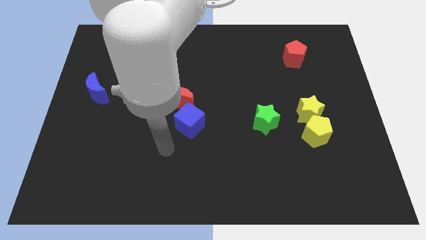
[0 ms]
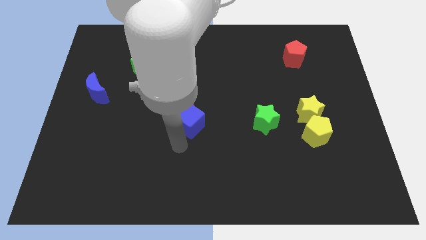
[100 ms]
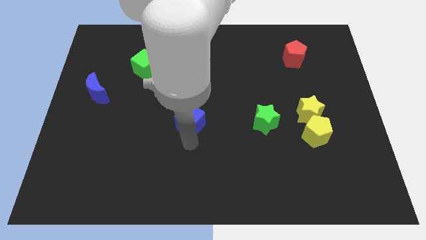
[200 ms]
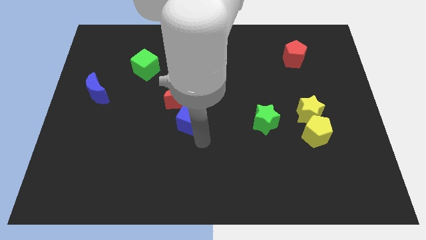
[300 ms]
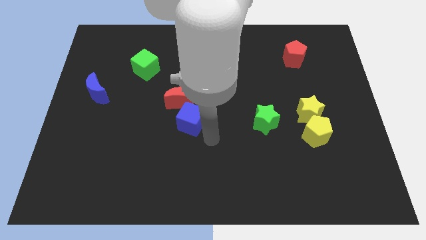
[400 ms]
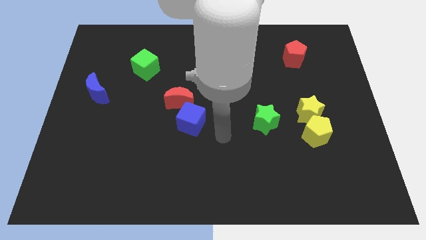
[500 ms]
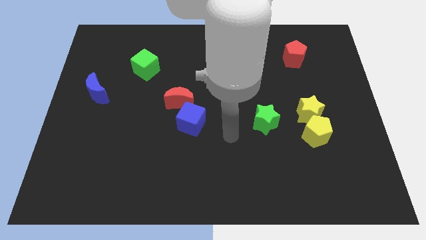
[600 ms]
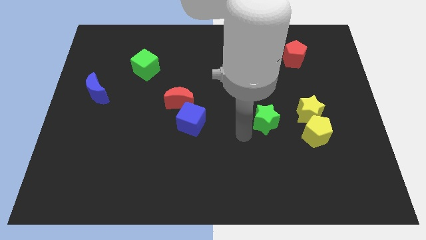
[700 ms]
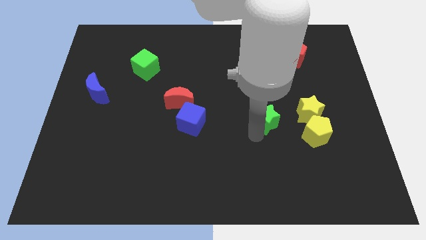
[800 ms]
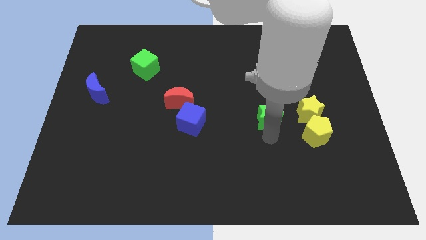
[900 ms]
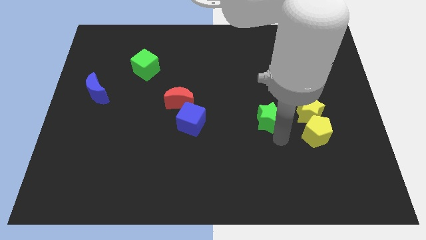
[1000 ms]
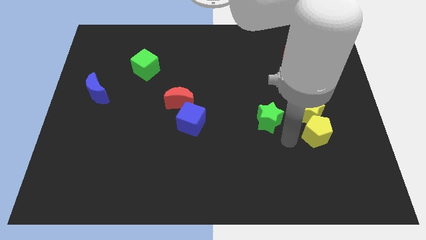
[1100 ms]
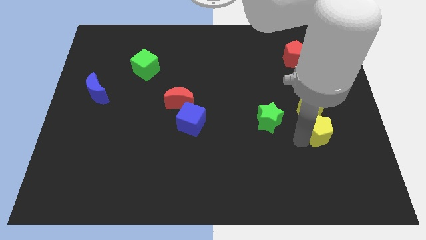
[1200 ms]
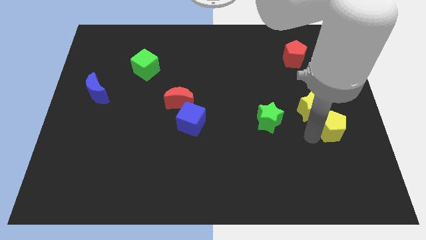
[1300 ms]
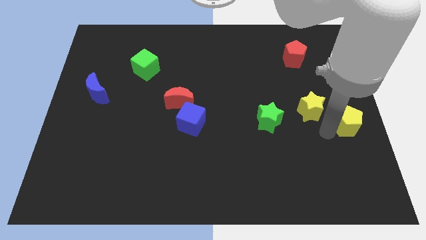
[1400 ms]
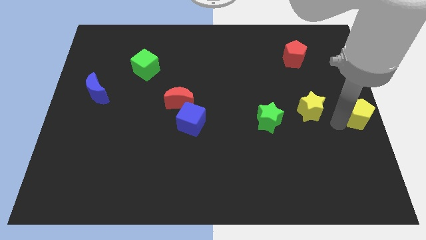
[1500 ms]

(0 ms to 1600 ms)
pull the yellow star apart from the yellow pentagon

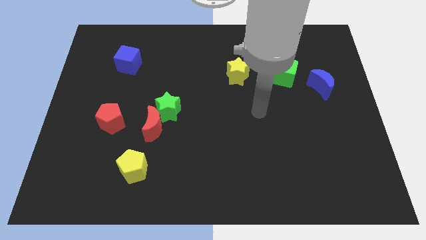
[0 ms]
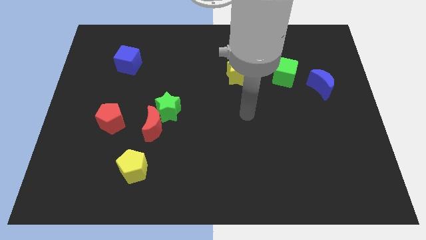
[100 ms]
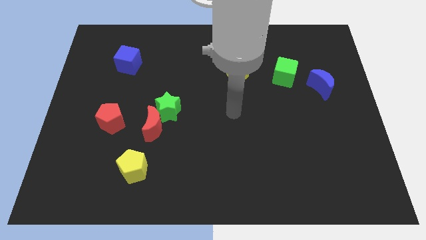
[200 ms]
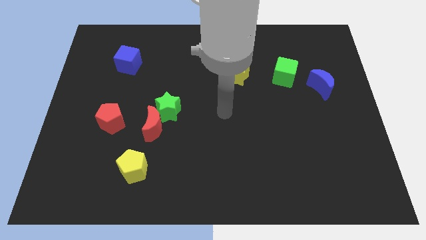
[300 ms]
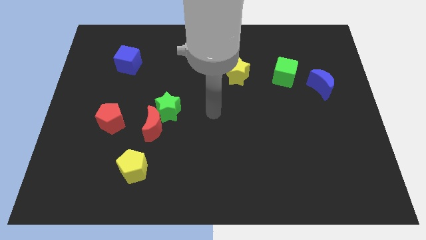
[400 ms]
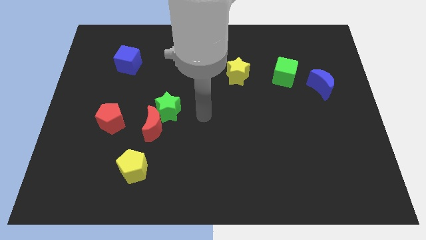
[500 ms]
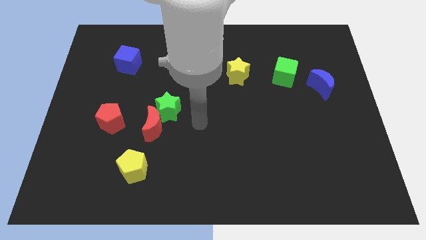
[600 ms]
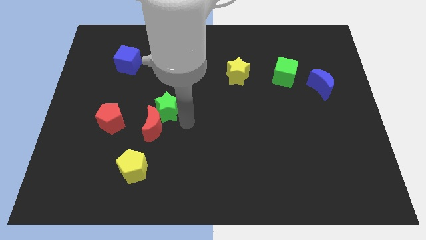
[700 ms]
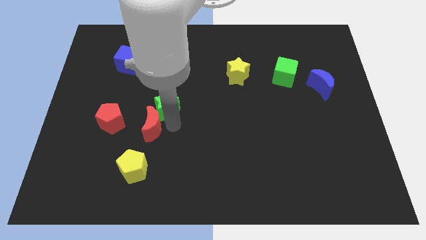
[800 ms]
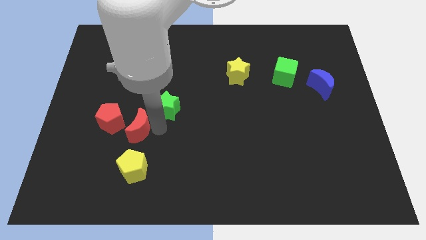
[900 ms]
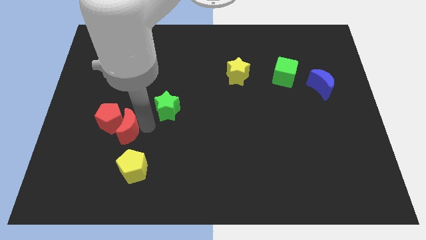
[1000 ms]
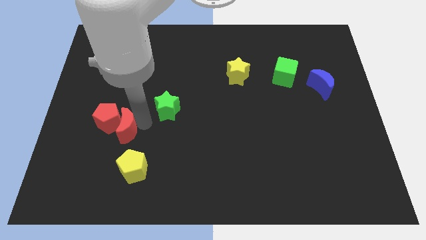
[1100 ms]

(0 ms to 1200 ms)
move the green star away from the red moon

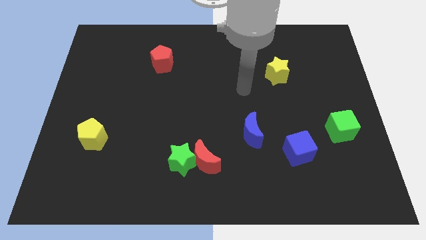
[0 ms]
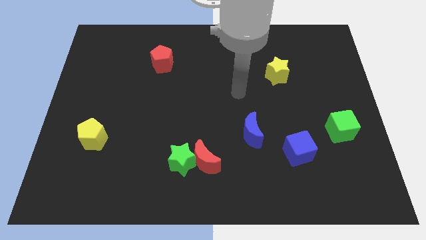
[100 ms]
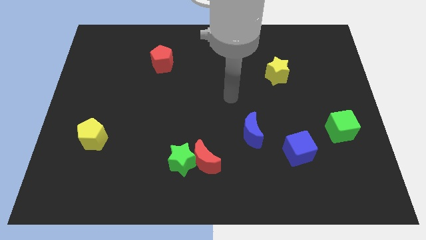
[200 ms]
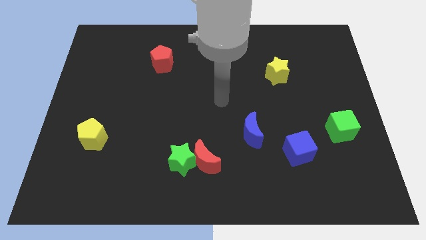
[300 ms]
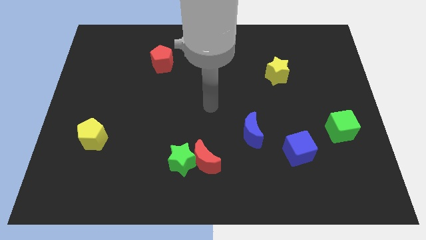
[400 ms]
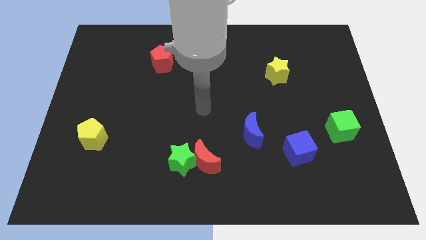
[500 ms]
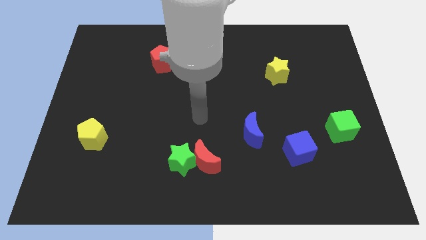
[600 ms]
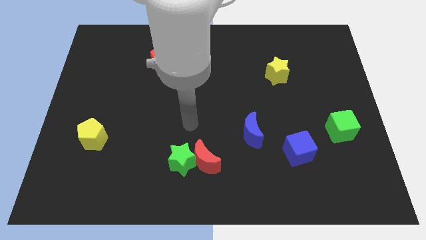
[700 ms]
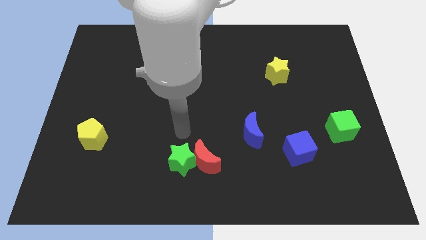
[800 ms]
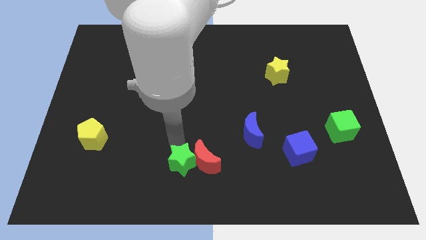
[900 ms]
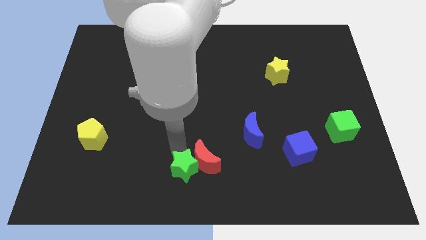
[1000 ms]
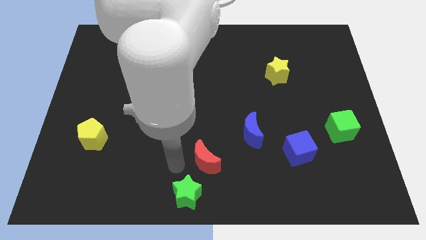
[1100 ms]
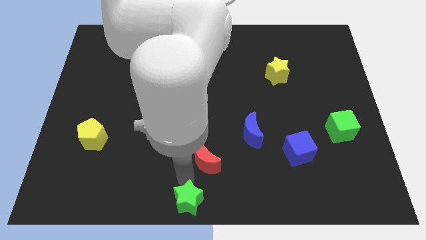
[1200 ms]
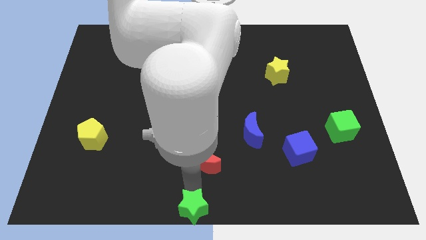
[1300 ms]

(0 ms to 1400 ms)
pull the red moon apart from the green star

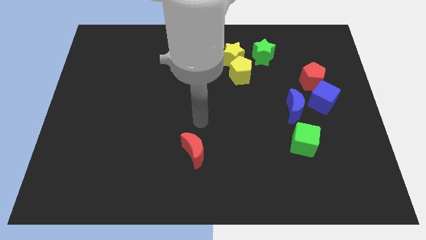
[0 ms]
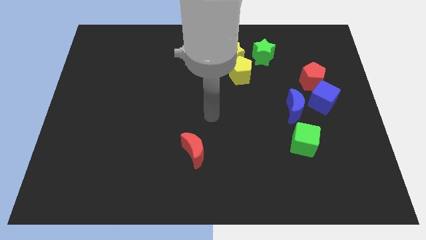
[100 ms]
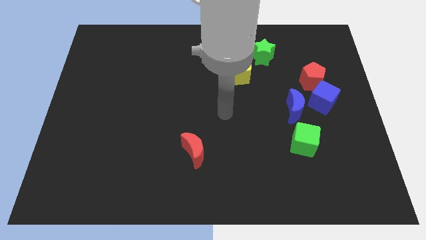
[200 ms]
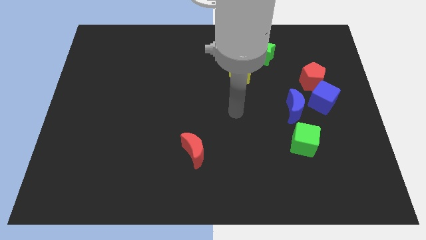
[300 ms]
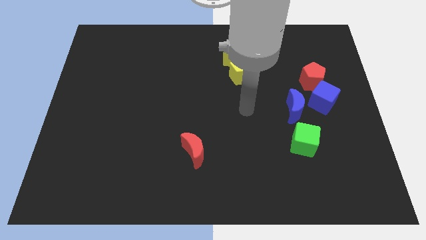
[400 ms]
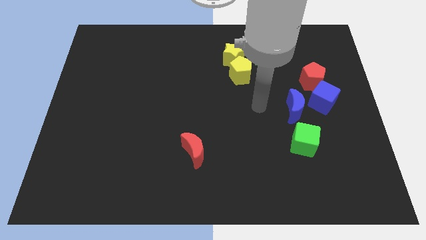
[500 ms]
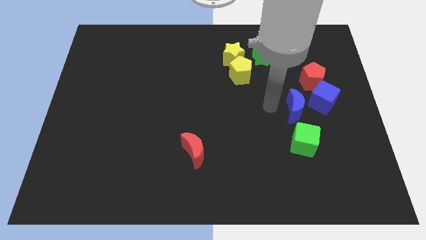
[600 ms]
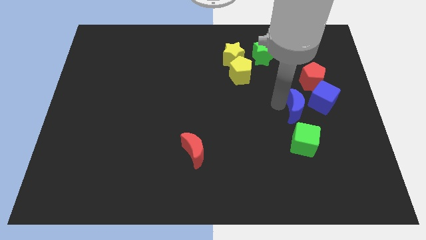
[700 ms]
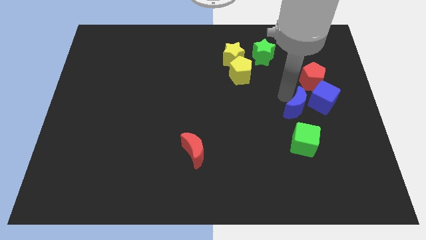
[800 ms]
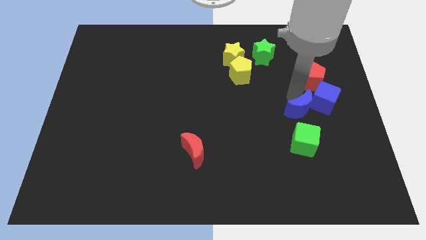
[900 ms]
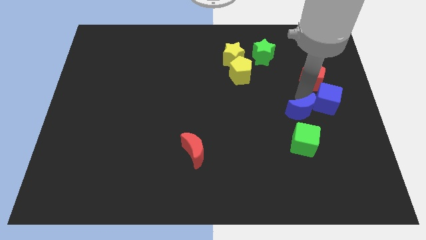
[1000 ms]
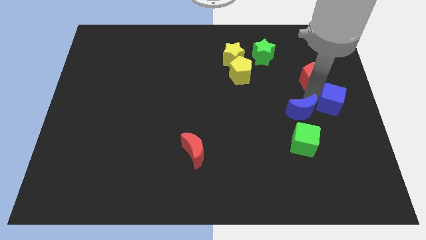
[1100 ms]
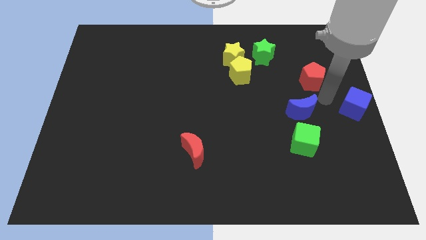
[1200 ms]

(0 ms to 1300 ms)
move the red pentagon away from the blue cube

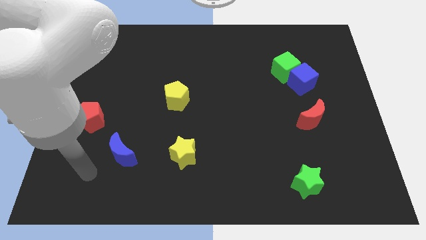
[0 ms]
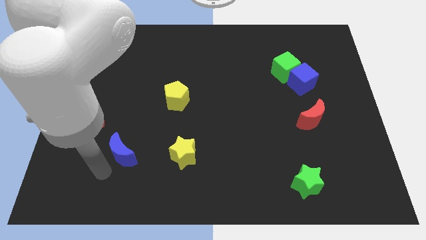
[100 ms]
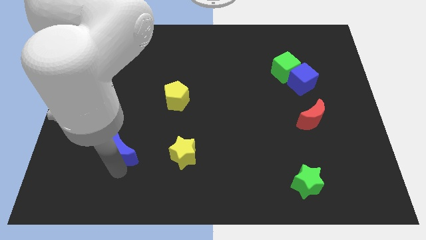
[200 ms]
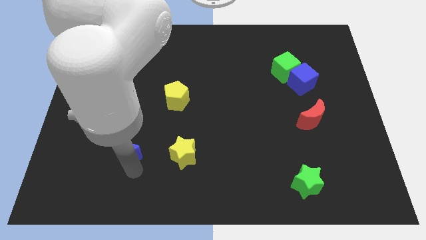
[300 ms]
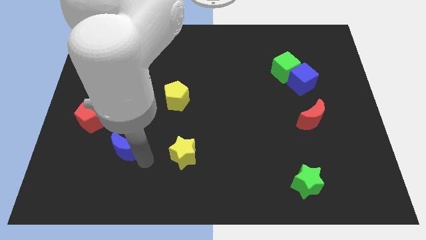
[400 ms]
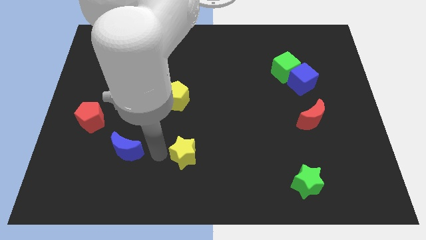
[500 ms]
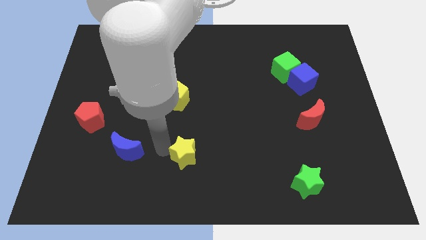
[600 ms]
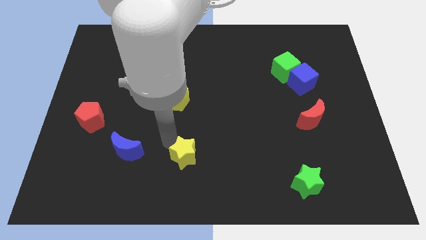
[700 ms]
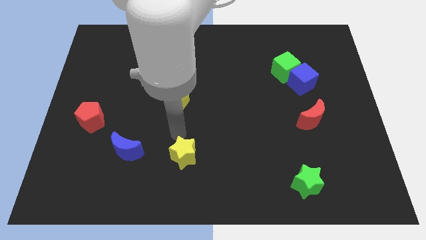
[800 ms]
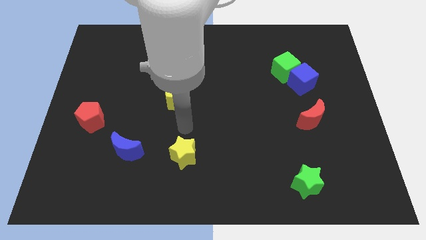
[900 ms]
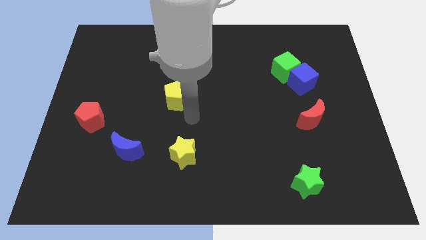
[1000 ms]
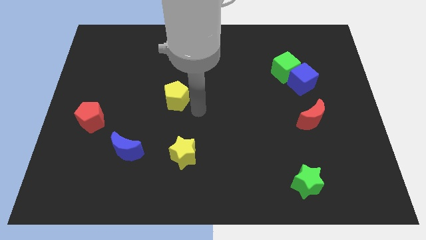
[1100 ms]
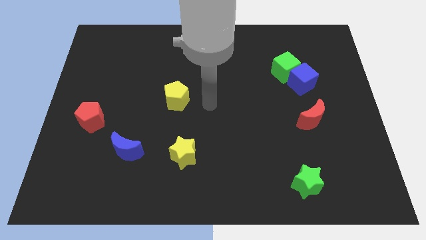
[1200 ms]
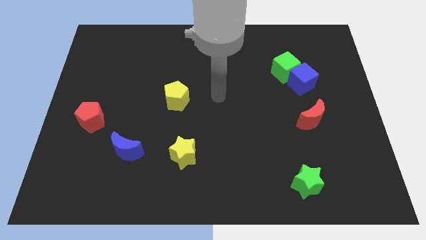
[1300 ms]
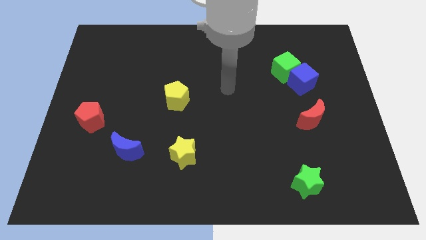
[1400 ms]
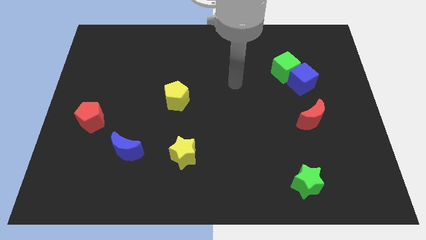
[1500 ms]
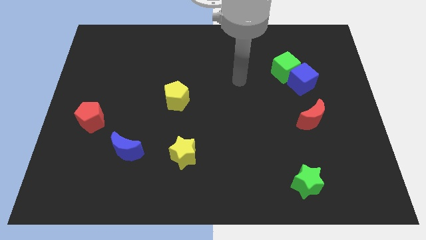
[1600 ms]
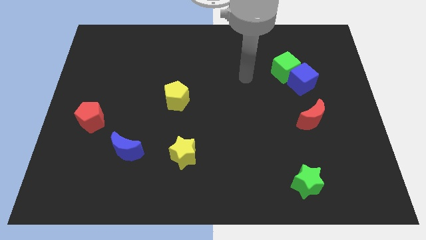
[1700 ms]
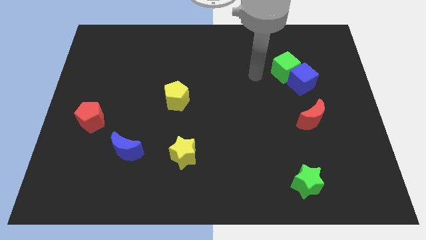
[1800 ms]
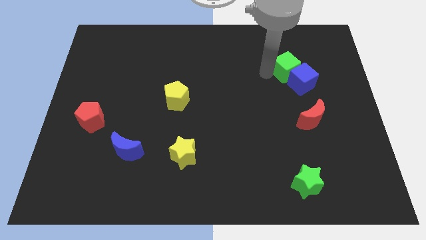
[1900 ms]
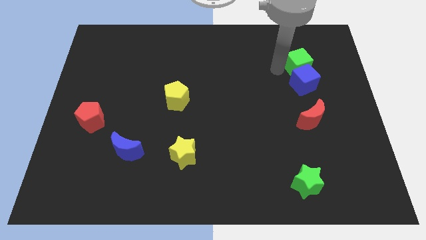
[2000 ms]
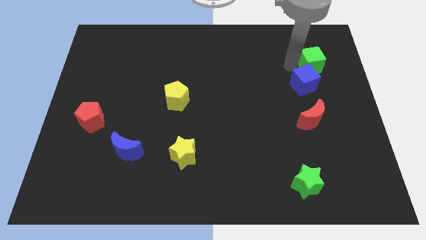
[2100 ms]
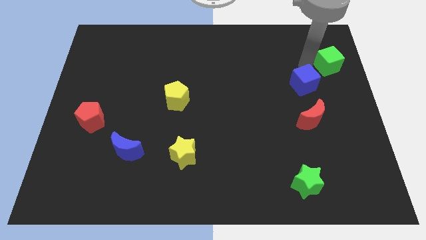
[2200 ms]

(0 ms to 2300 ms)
separate the blue cube from the green cube

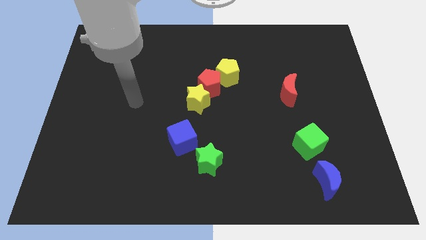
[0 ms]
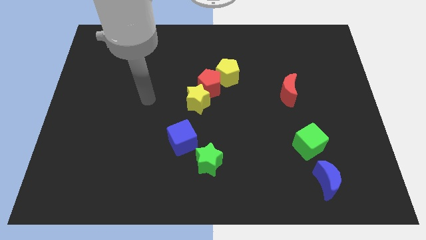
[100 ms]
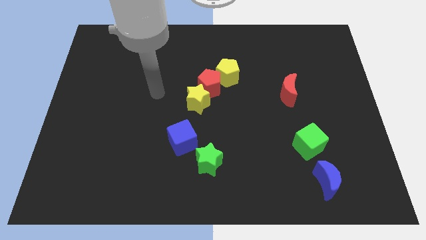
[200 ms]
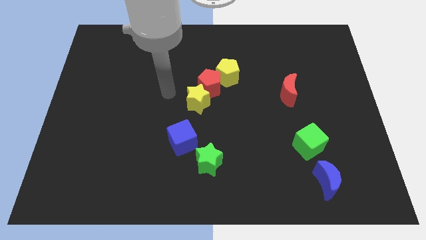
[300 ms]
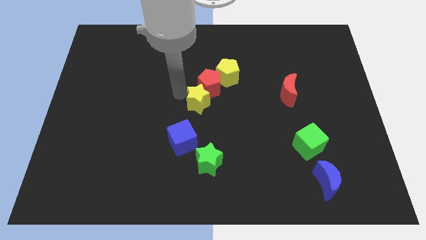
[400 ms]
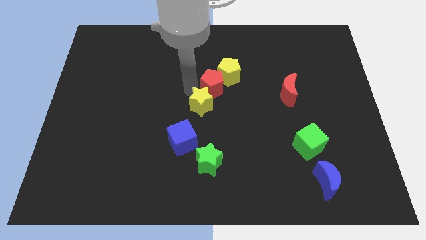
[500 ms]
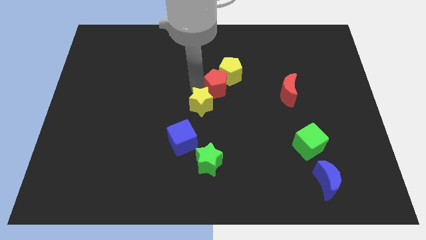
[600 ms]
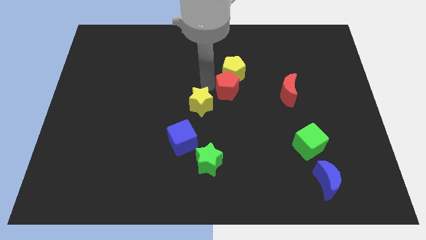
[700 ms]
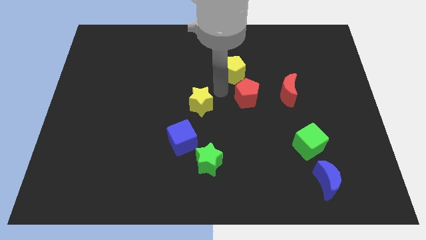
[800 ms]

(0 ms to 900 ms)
pull the yellow star apart from the red pentagon

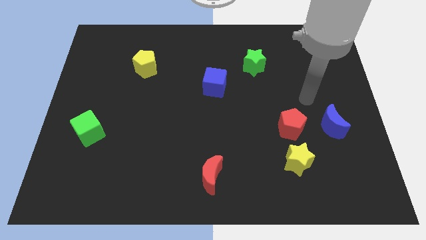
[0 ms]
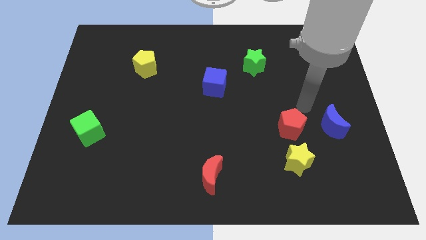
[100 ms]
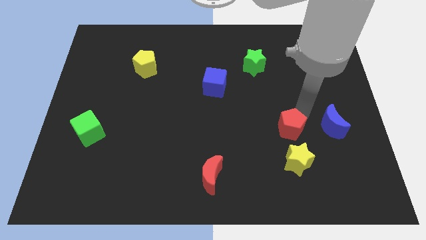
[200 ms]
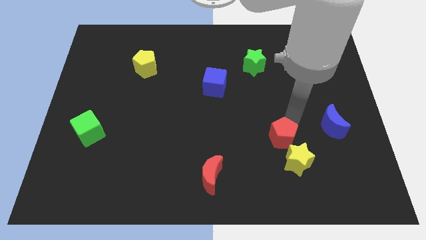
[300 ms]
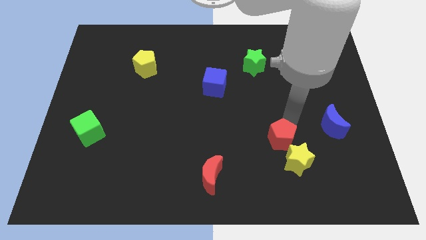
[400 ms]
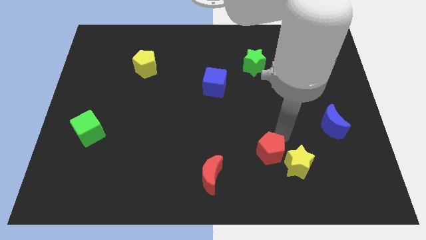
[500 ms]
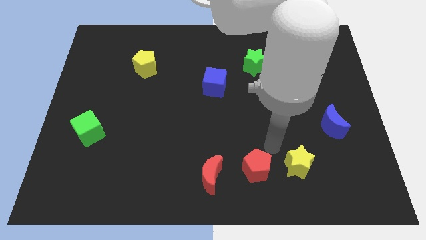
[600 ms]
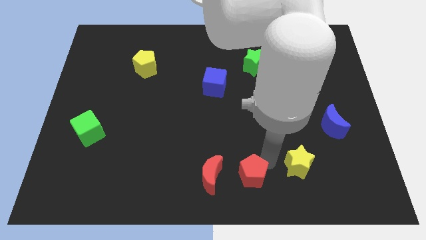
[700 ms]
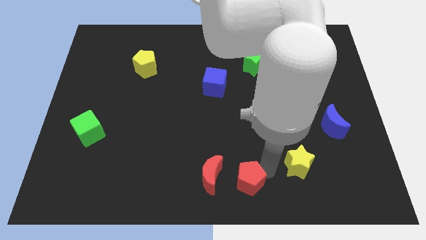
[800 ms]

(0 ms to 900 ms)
separate the yellow star from the red pentagon
